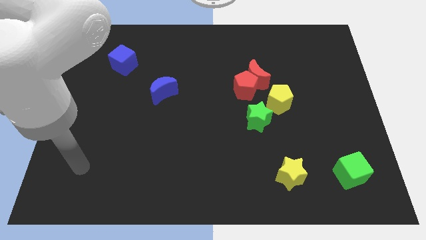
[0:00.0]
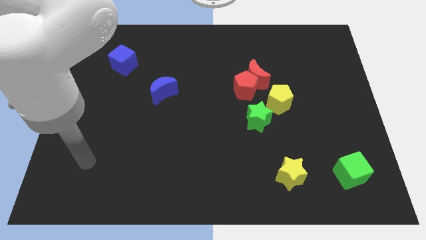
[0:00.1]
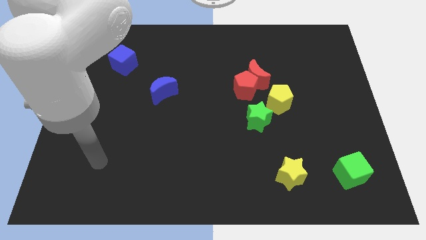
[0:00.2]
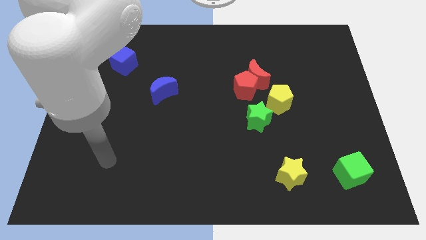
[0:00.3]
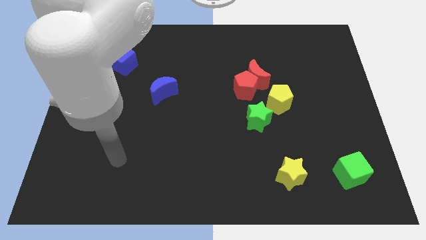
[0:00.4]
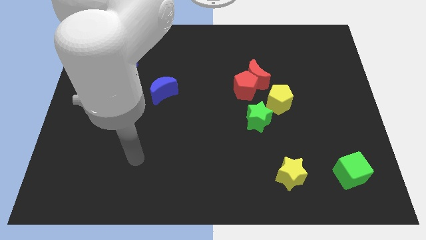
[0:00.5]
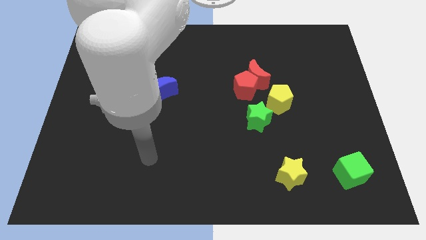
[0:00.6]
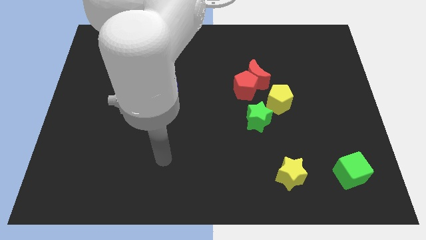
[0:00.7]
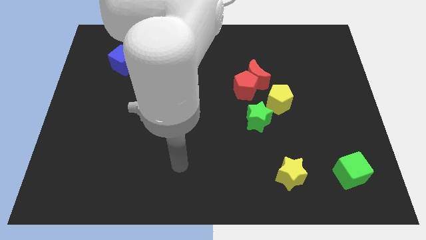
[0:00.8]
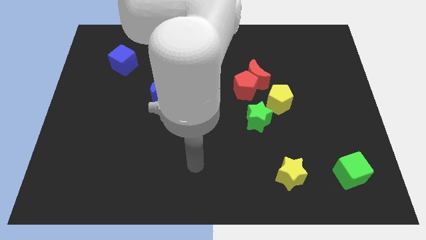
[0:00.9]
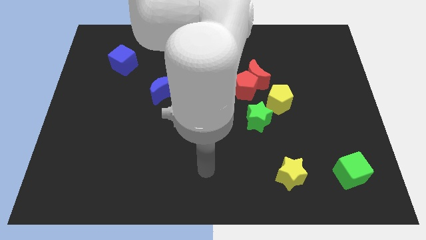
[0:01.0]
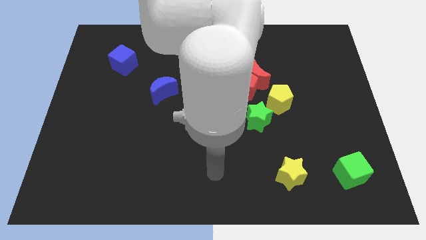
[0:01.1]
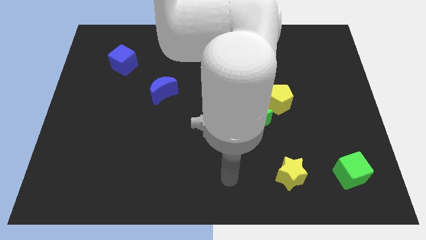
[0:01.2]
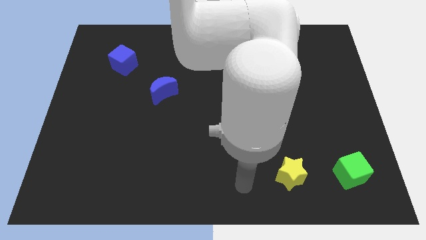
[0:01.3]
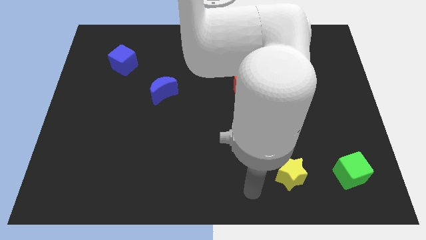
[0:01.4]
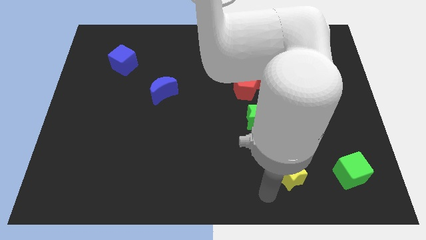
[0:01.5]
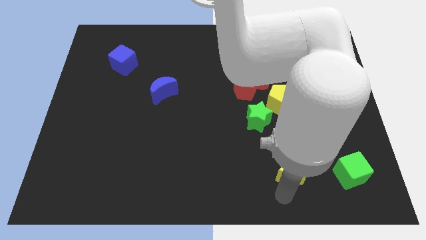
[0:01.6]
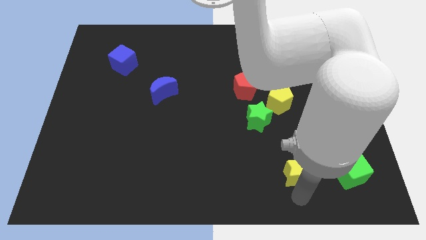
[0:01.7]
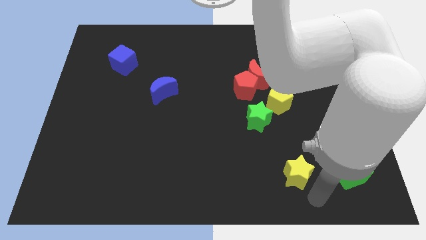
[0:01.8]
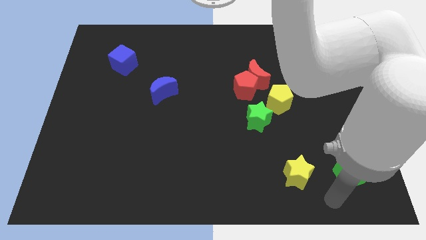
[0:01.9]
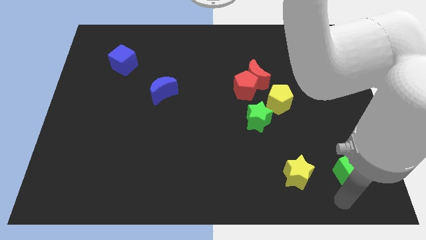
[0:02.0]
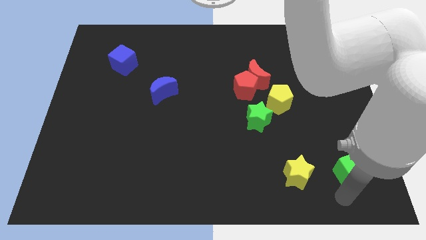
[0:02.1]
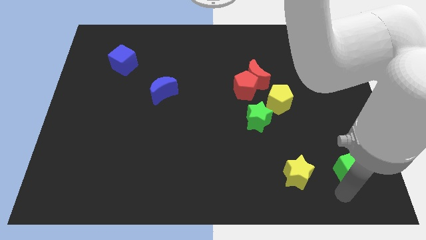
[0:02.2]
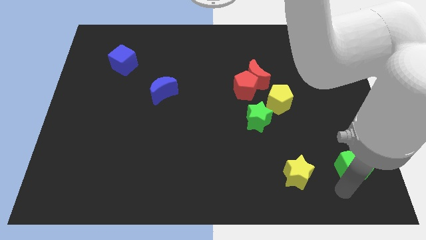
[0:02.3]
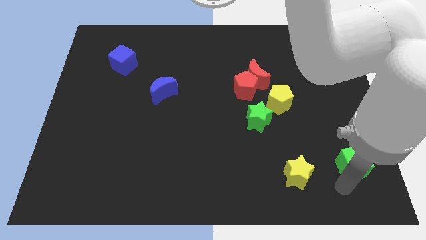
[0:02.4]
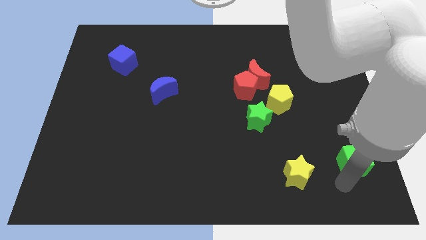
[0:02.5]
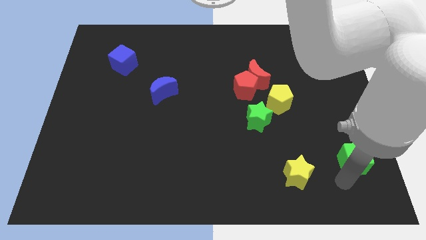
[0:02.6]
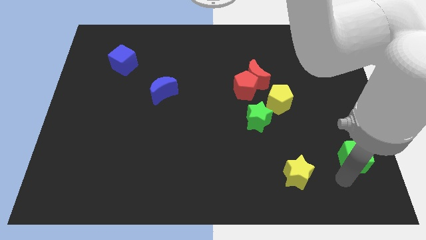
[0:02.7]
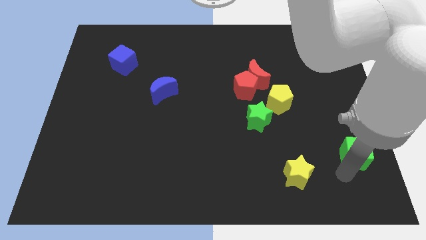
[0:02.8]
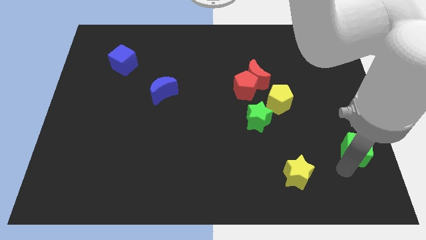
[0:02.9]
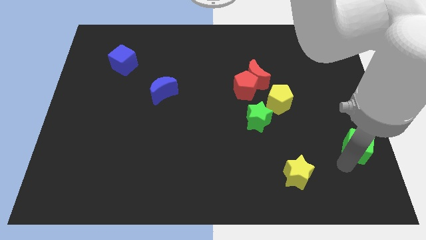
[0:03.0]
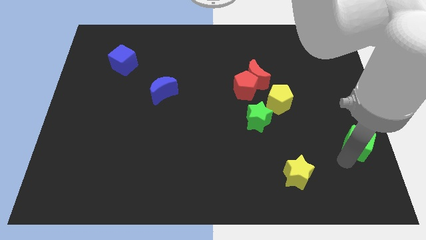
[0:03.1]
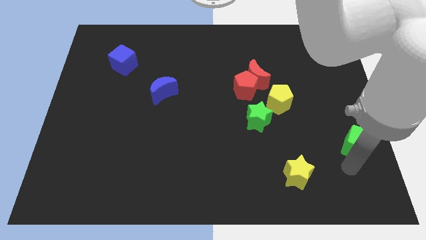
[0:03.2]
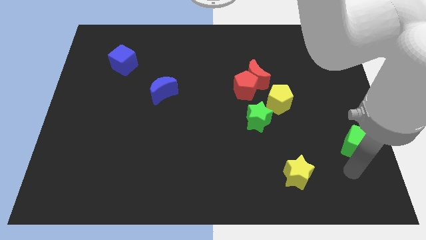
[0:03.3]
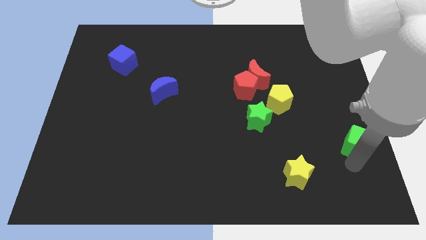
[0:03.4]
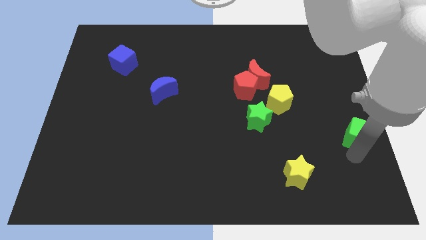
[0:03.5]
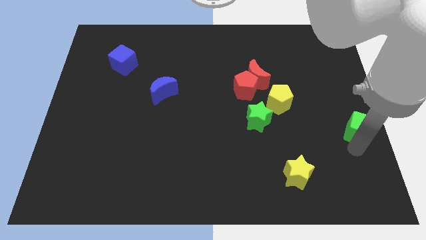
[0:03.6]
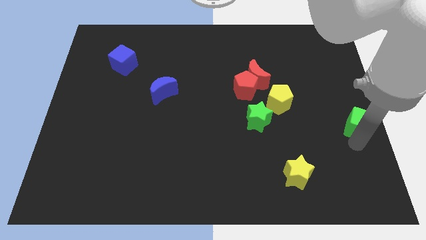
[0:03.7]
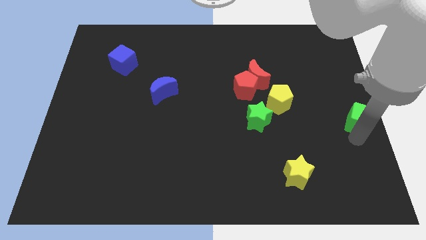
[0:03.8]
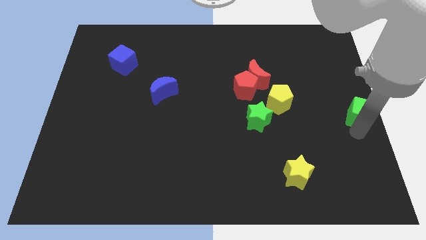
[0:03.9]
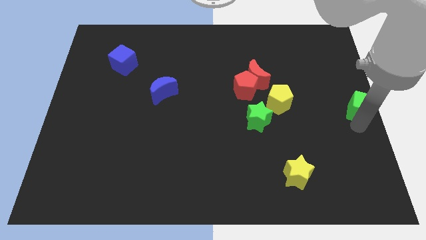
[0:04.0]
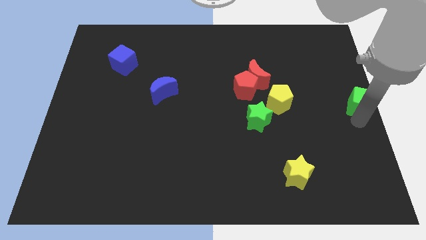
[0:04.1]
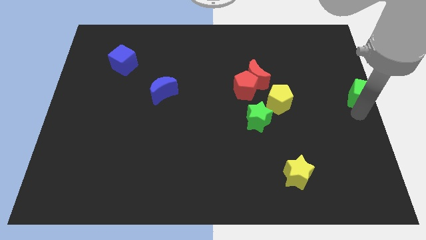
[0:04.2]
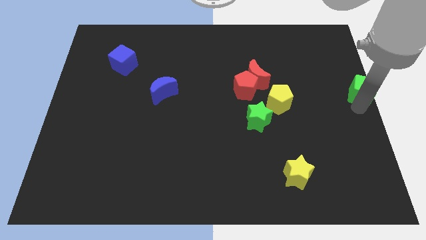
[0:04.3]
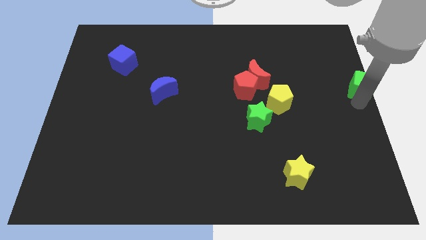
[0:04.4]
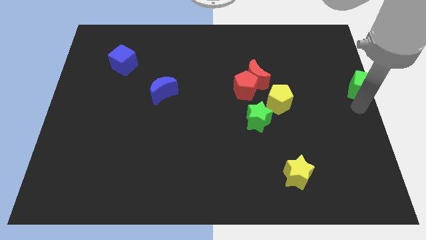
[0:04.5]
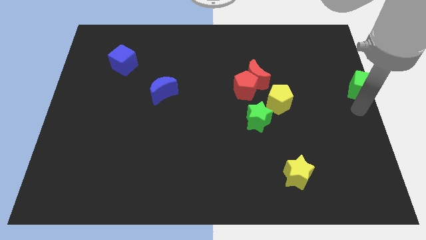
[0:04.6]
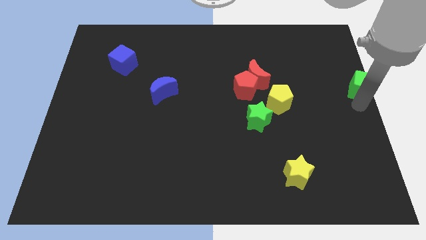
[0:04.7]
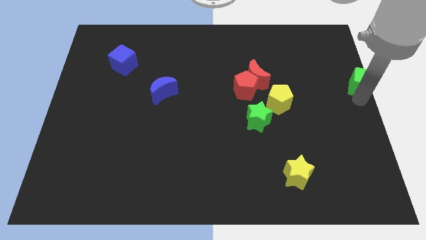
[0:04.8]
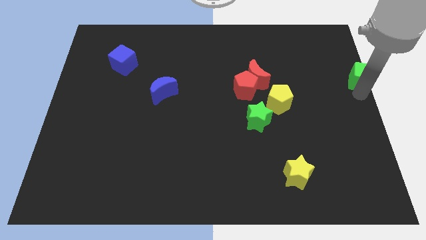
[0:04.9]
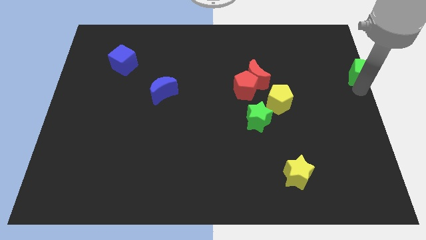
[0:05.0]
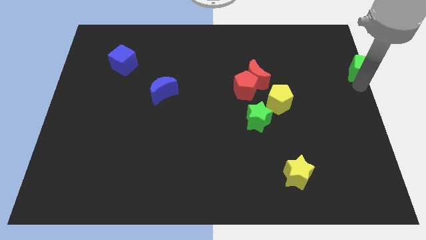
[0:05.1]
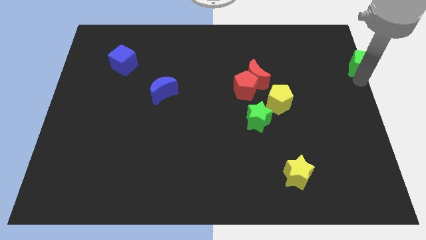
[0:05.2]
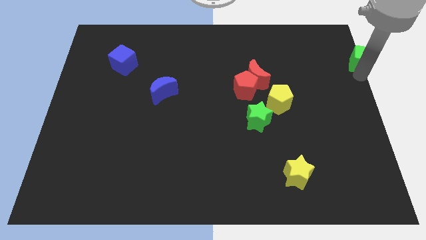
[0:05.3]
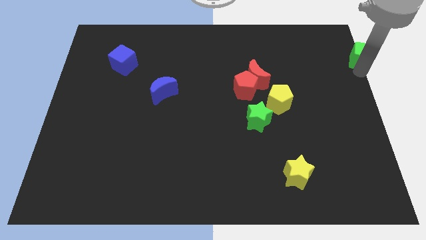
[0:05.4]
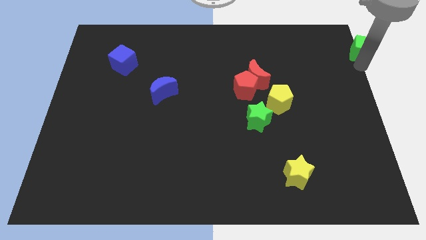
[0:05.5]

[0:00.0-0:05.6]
slide the green cube to the top right of the board

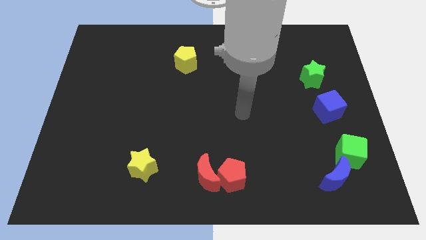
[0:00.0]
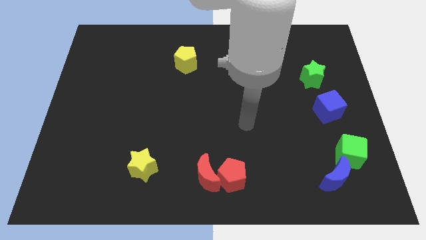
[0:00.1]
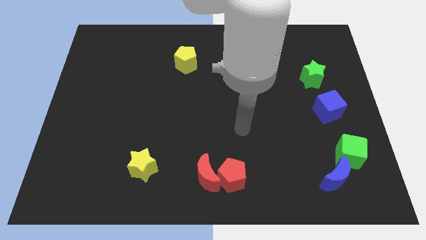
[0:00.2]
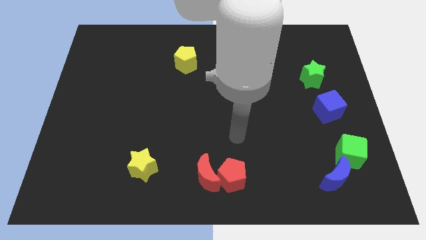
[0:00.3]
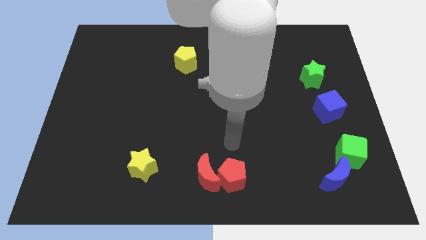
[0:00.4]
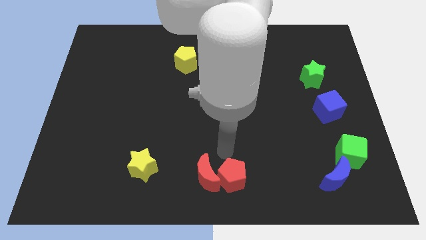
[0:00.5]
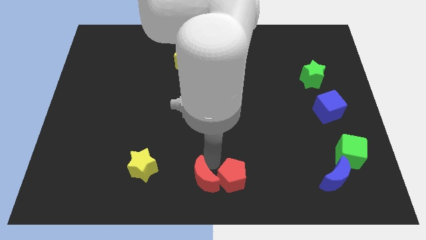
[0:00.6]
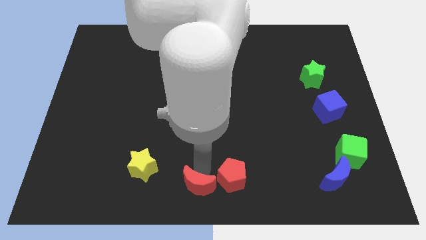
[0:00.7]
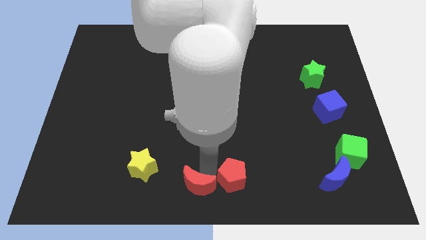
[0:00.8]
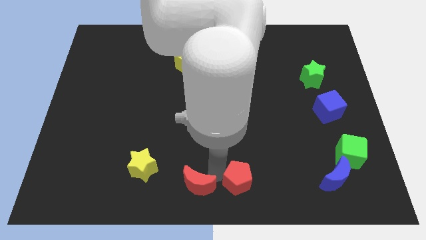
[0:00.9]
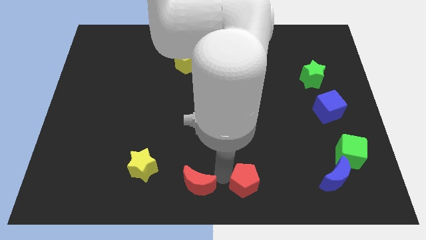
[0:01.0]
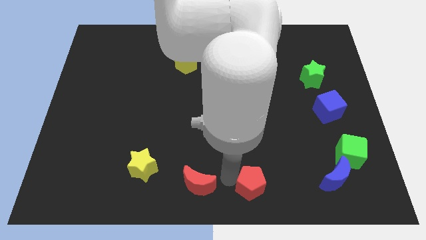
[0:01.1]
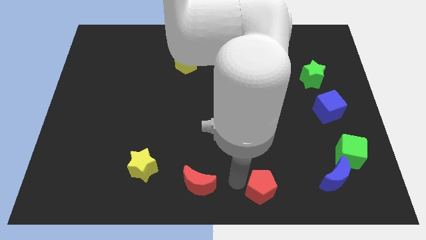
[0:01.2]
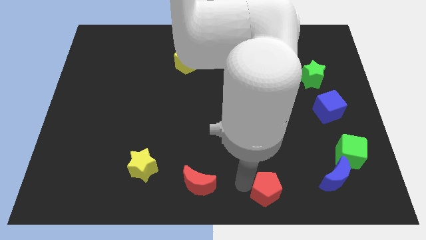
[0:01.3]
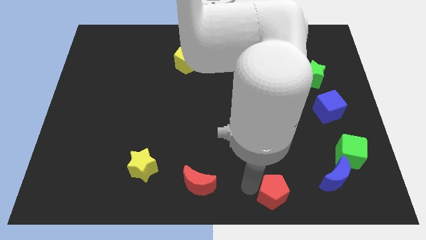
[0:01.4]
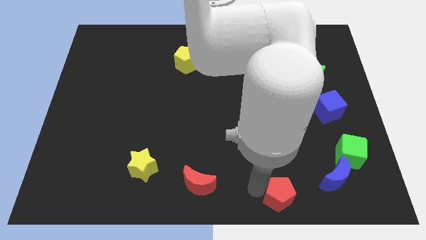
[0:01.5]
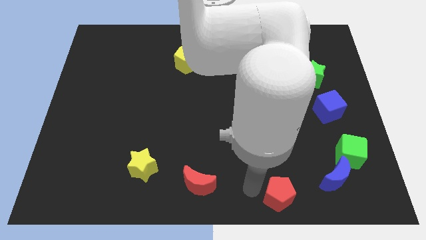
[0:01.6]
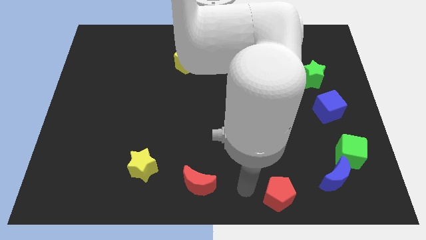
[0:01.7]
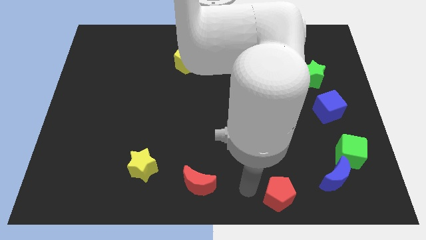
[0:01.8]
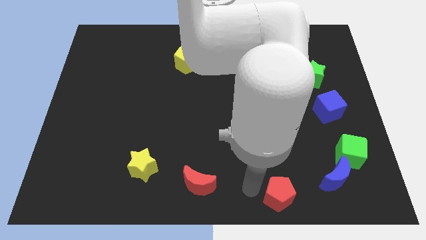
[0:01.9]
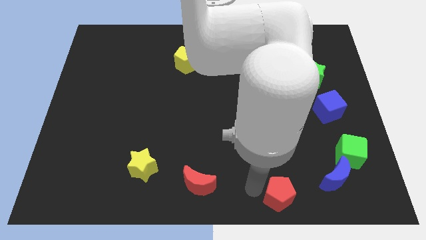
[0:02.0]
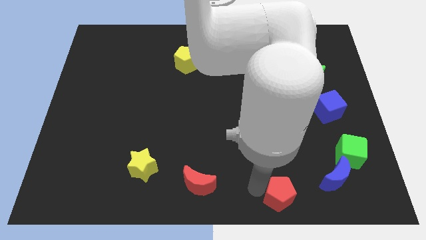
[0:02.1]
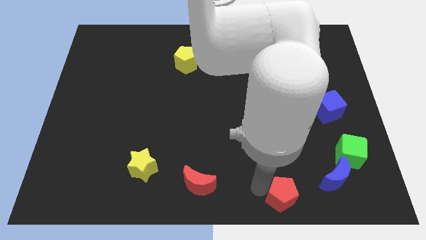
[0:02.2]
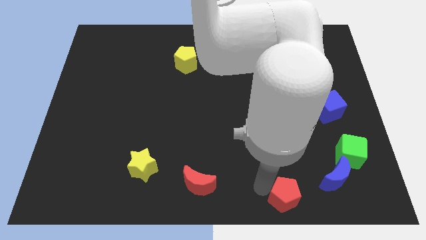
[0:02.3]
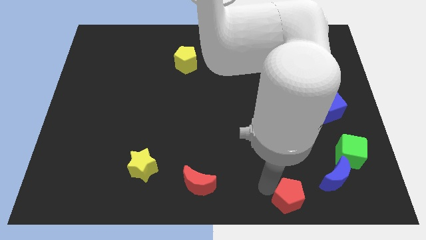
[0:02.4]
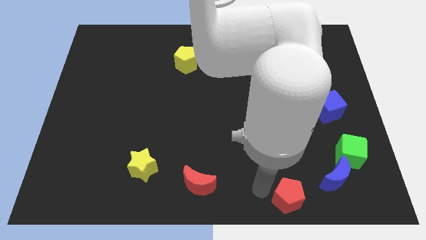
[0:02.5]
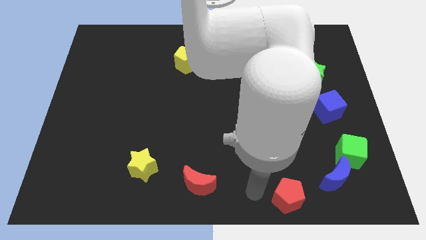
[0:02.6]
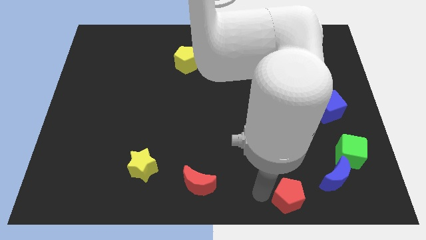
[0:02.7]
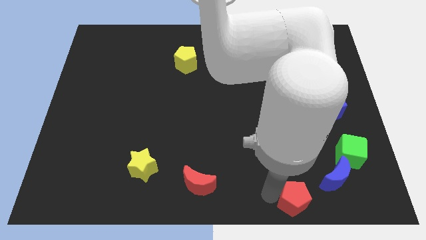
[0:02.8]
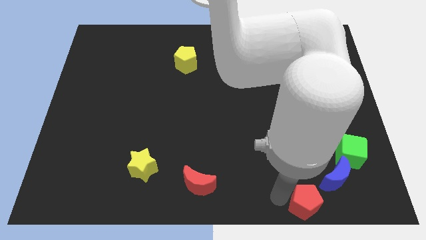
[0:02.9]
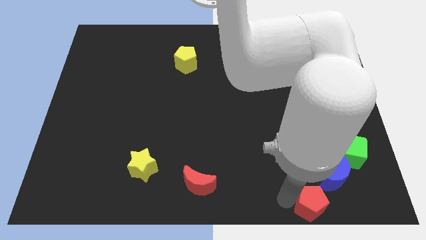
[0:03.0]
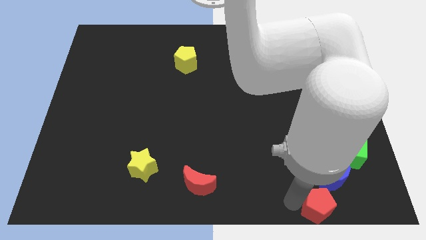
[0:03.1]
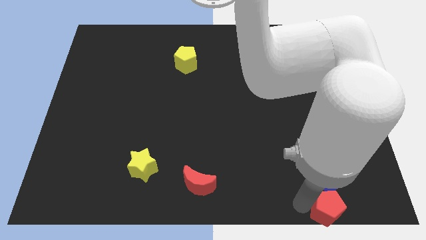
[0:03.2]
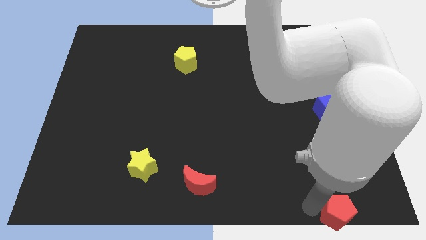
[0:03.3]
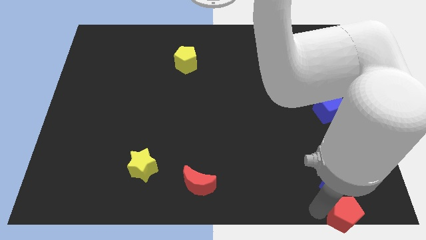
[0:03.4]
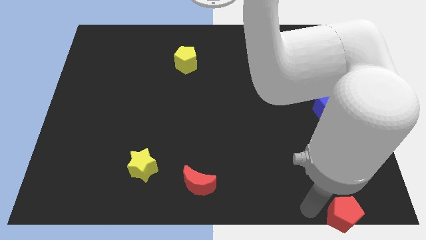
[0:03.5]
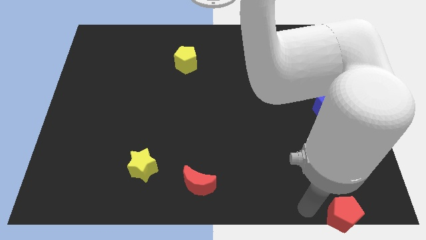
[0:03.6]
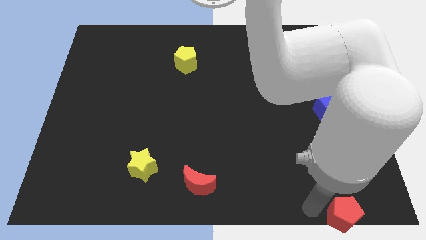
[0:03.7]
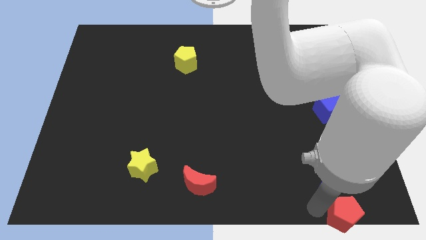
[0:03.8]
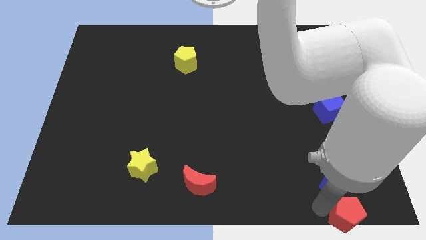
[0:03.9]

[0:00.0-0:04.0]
push the red pentagon to the lower right corner
